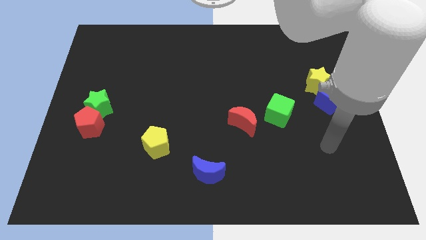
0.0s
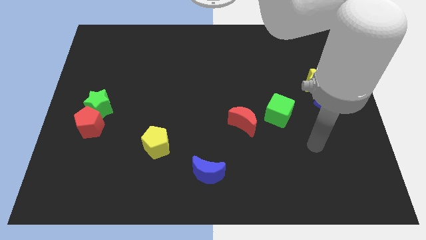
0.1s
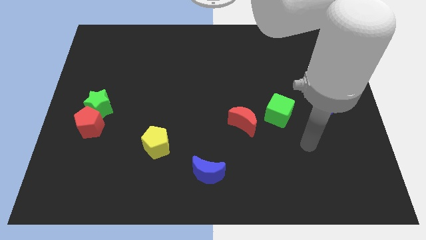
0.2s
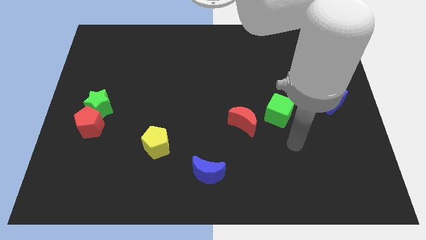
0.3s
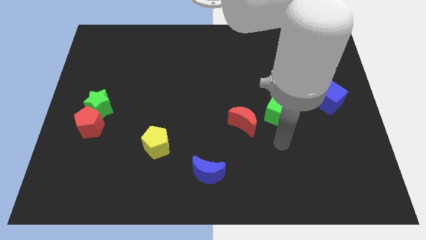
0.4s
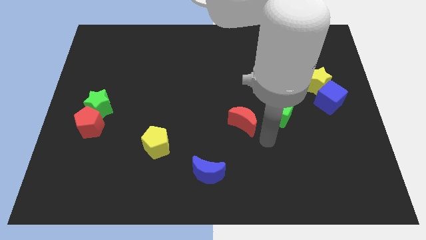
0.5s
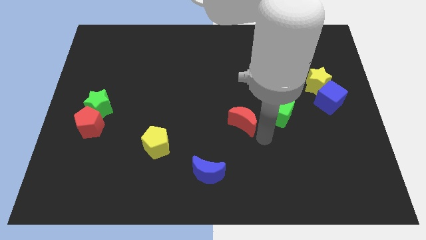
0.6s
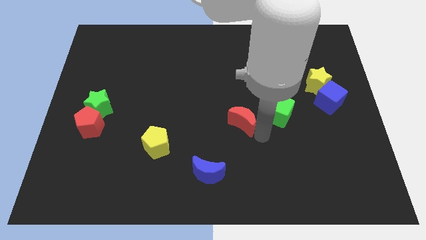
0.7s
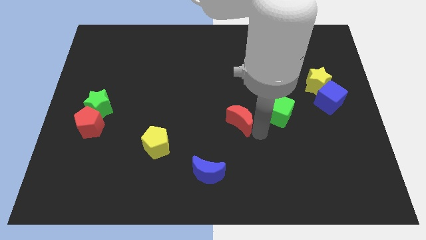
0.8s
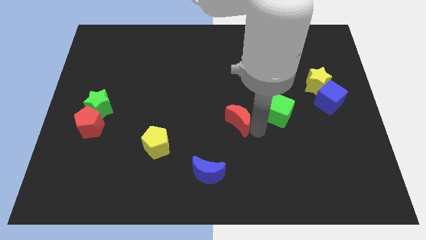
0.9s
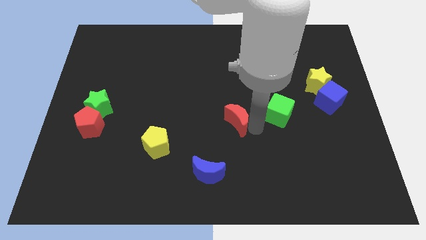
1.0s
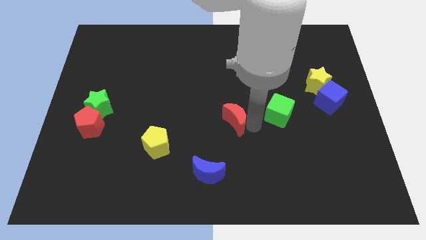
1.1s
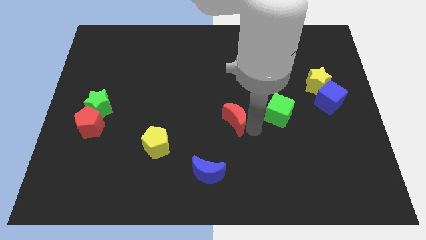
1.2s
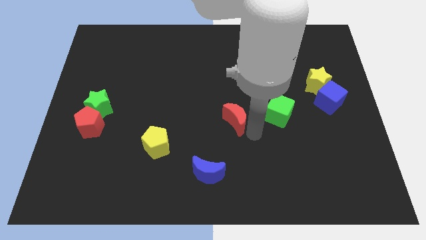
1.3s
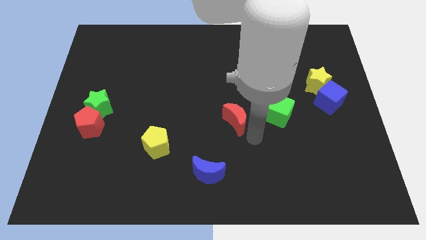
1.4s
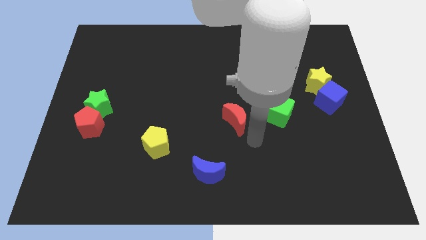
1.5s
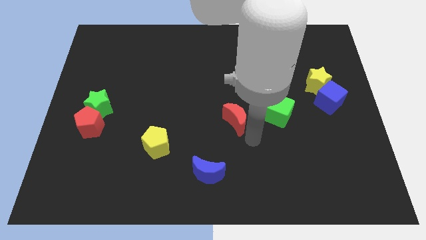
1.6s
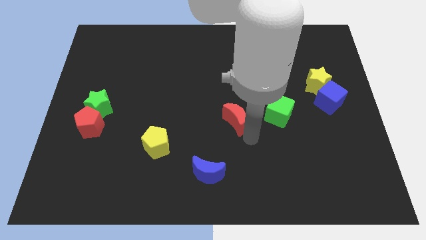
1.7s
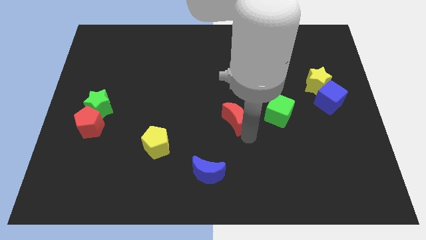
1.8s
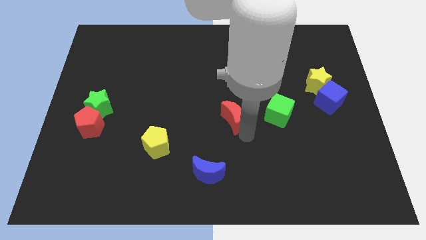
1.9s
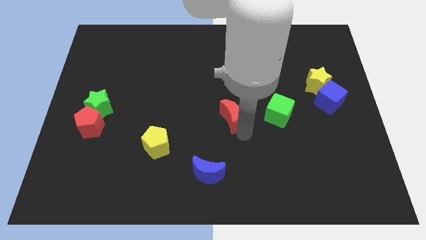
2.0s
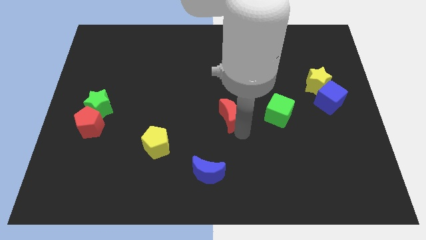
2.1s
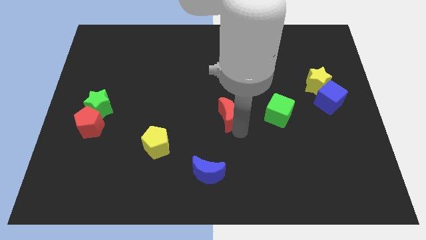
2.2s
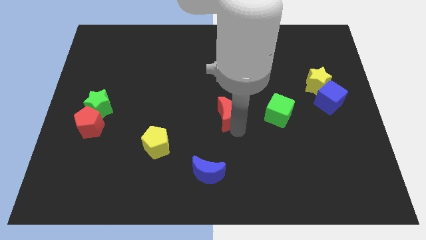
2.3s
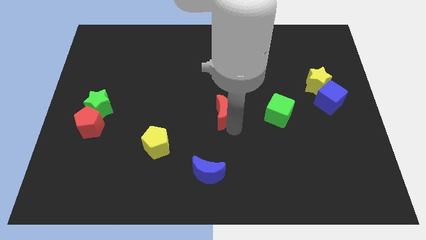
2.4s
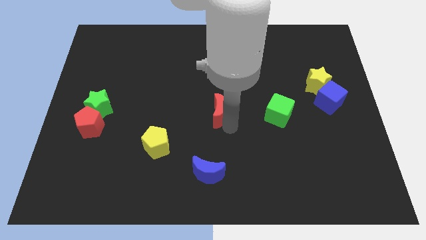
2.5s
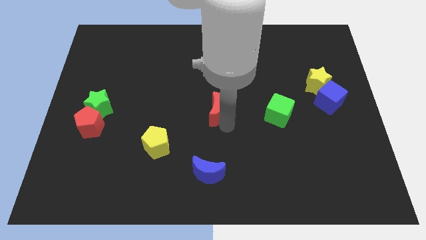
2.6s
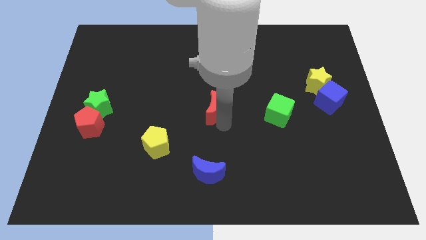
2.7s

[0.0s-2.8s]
move the red moon a bit upwards and to the left

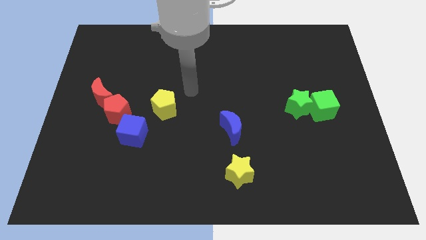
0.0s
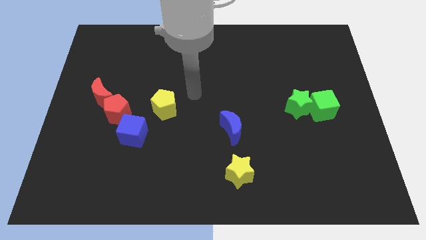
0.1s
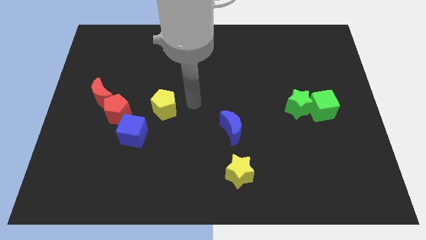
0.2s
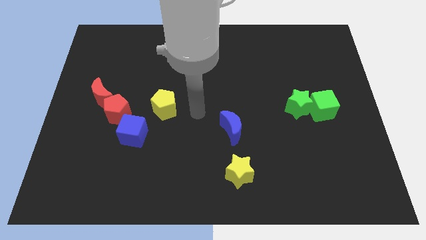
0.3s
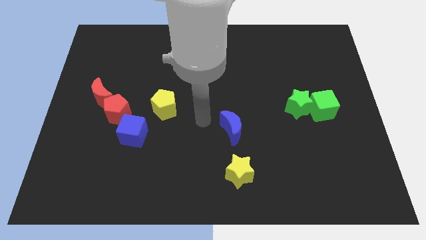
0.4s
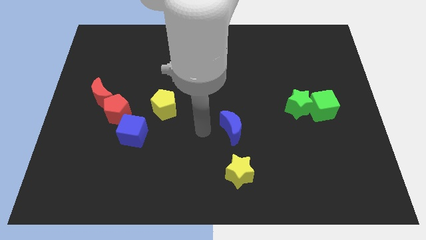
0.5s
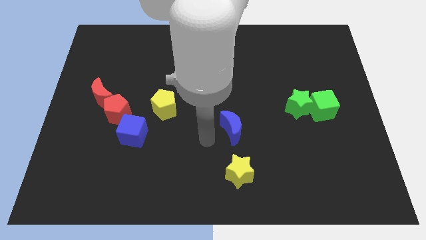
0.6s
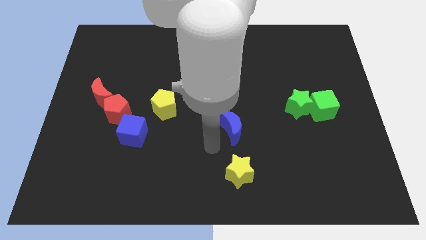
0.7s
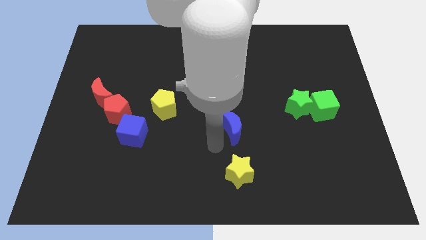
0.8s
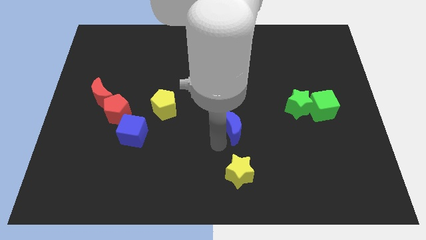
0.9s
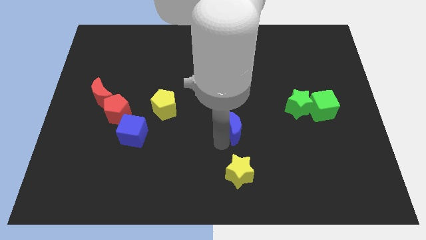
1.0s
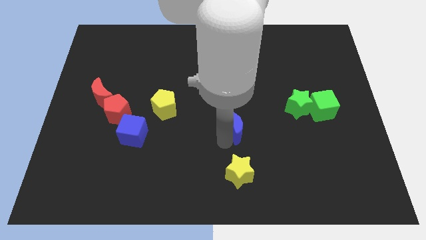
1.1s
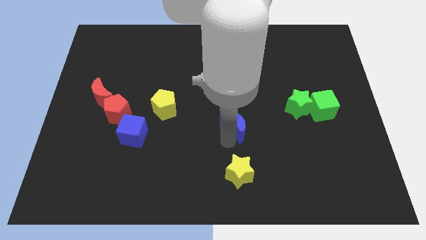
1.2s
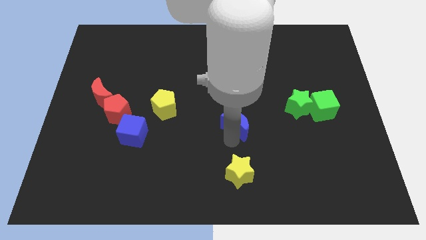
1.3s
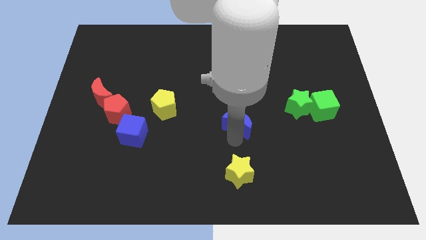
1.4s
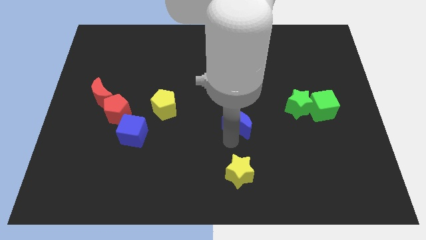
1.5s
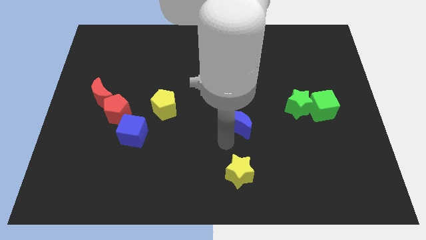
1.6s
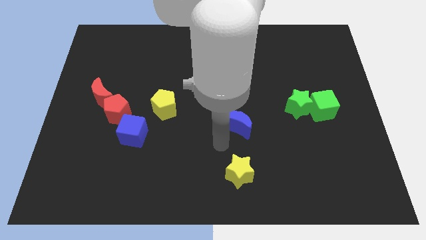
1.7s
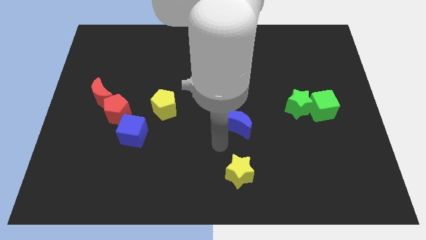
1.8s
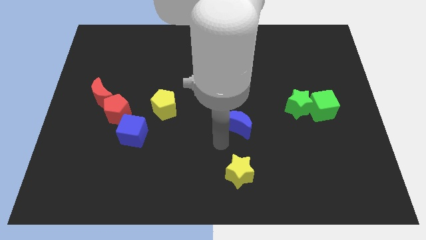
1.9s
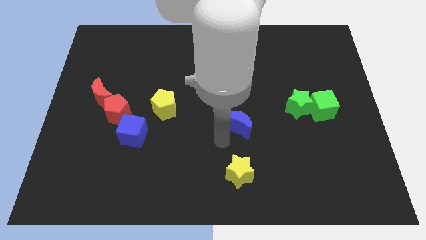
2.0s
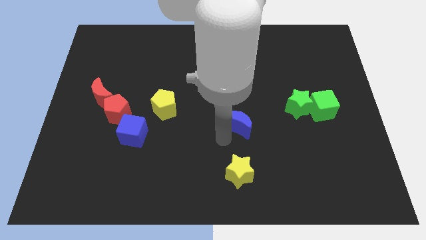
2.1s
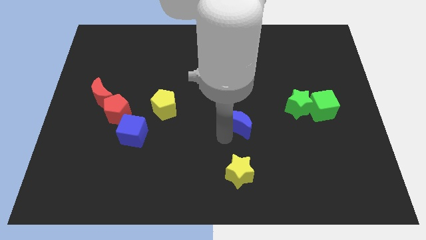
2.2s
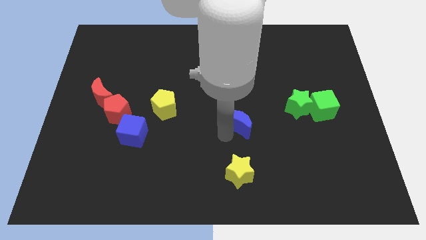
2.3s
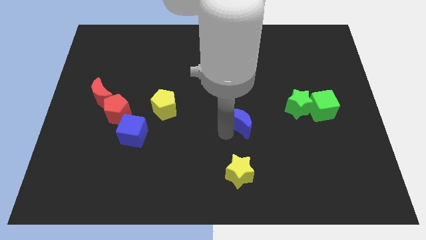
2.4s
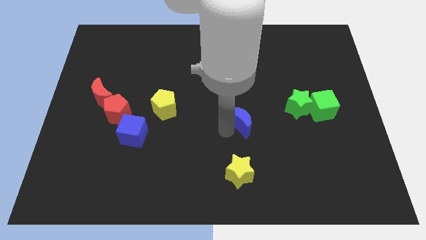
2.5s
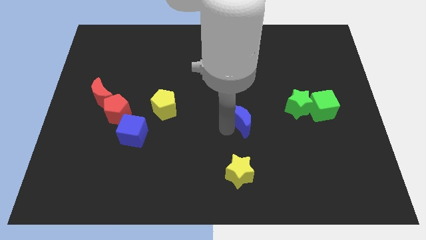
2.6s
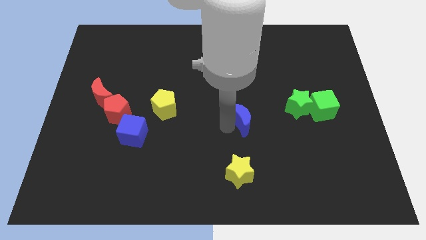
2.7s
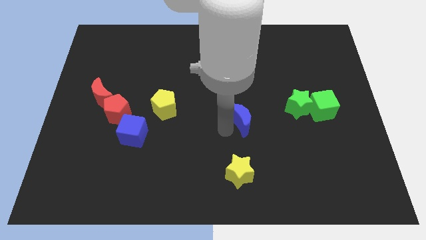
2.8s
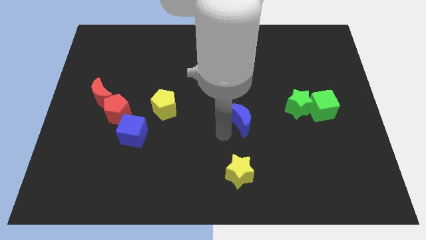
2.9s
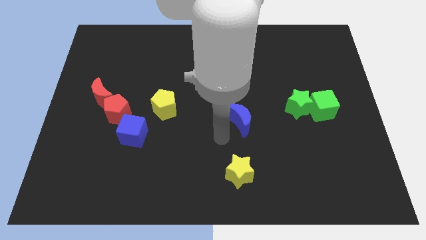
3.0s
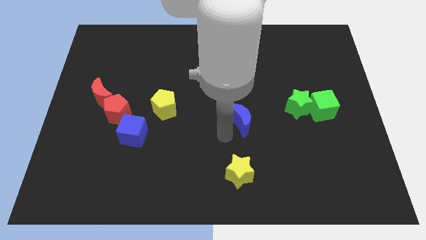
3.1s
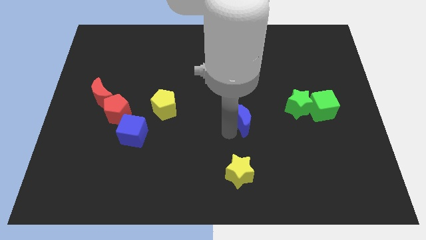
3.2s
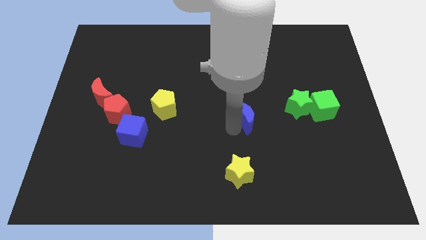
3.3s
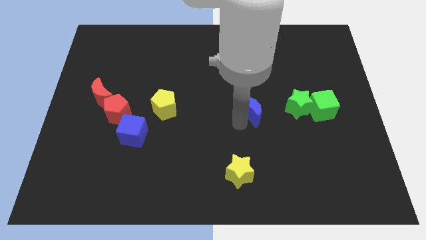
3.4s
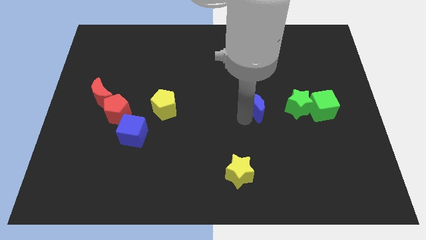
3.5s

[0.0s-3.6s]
push the blue moon diagonally up and right a little

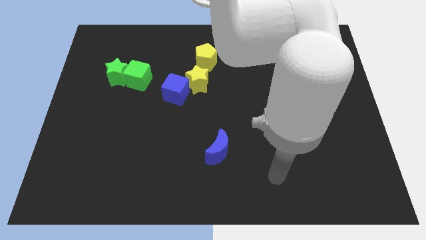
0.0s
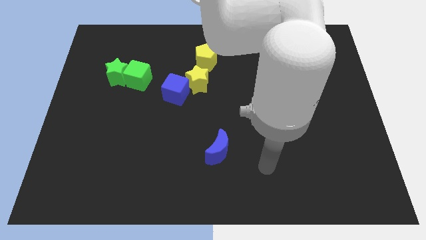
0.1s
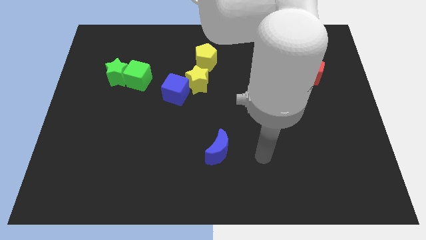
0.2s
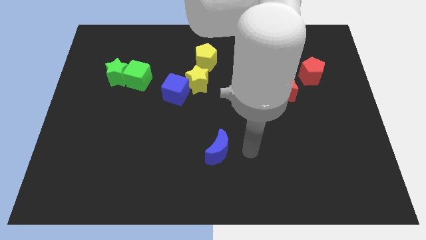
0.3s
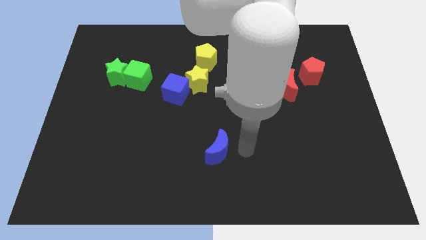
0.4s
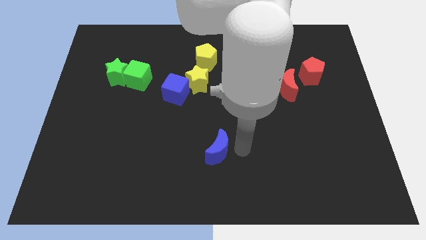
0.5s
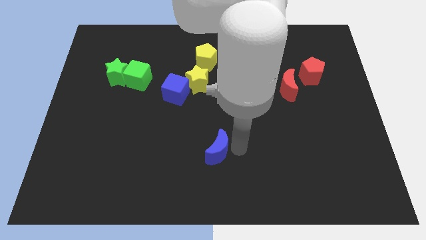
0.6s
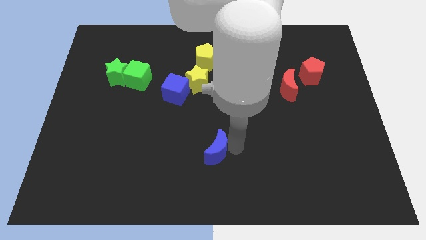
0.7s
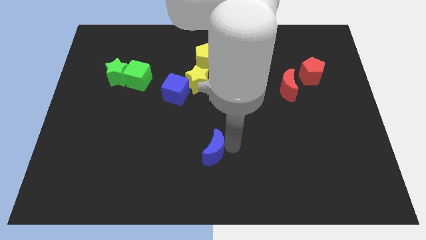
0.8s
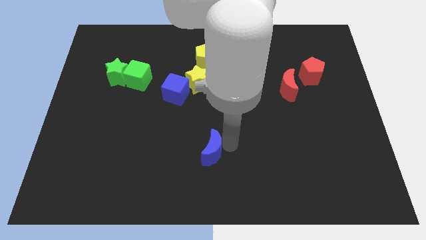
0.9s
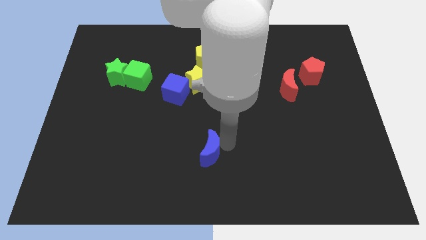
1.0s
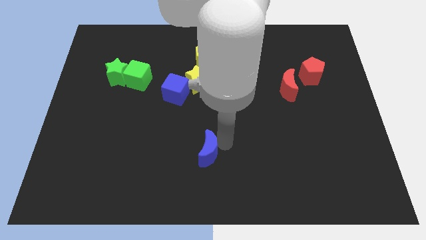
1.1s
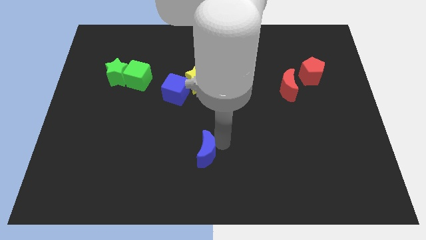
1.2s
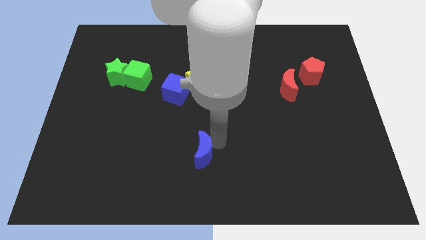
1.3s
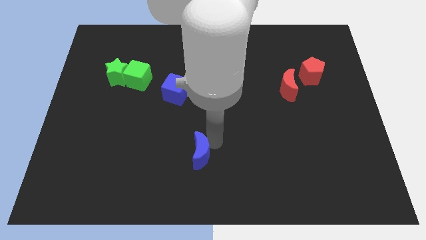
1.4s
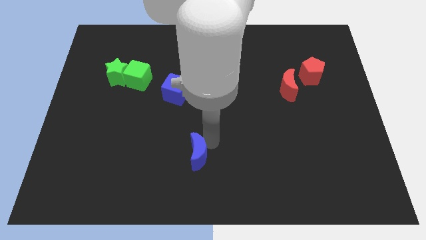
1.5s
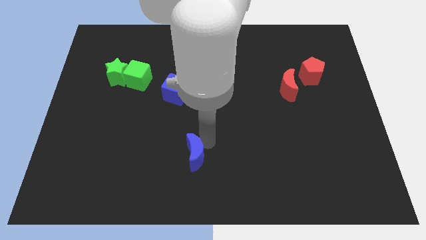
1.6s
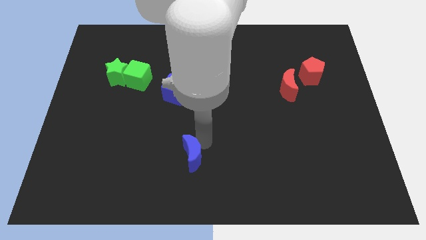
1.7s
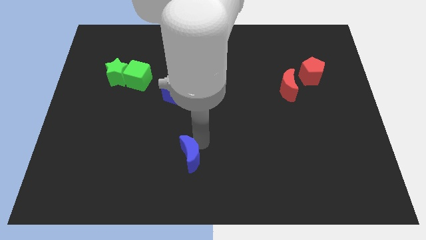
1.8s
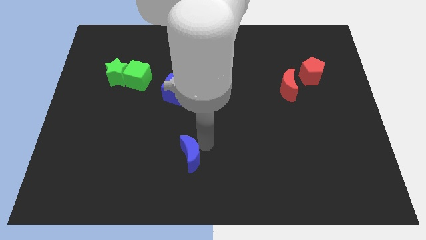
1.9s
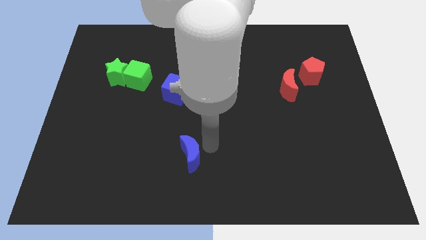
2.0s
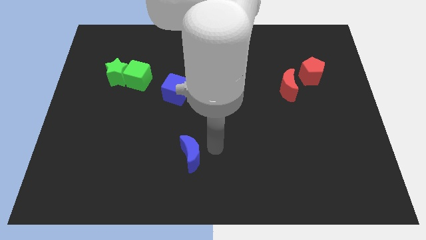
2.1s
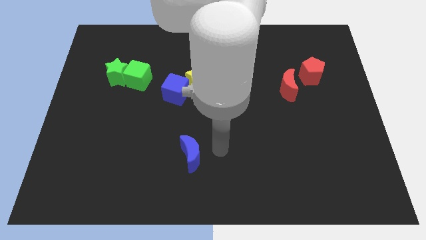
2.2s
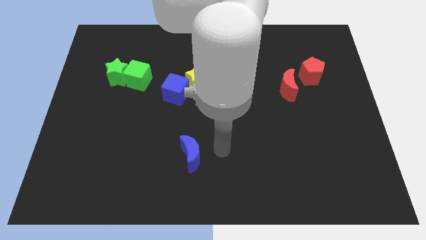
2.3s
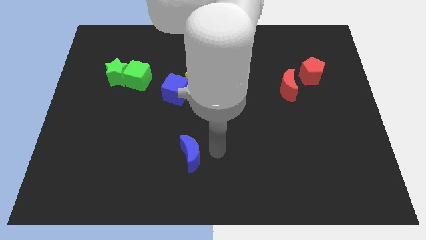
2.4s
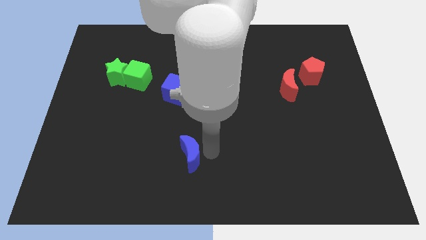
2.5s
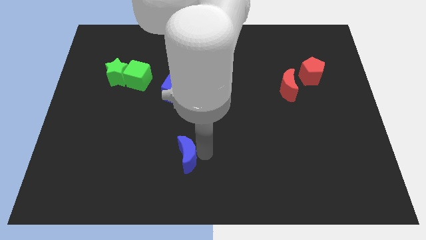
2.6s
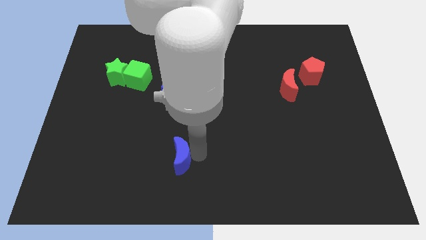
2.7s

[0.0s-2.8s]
push the blue moon a little left
